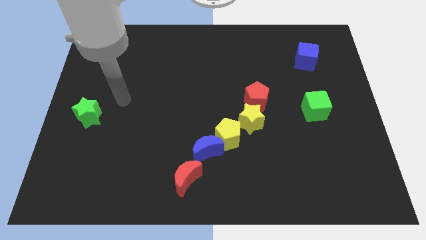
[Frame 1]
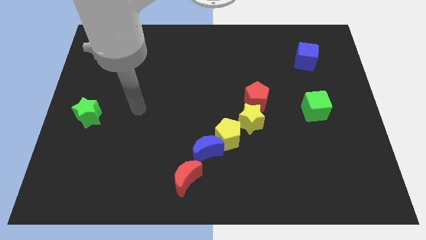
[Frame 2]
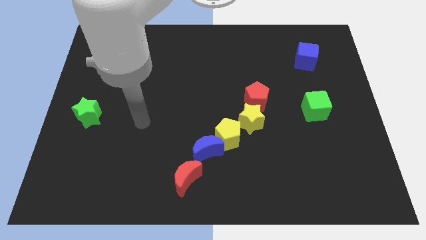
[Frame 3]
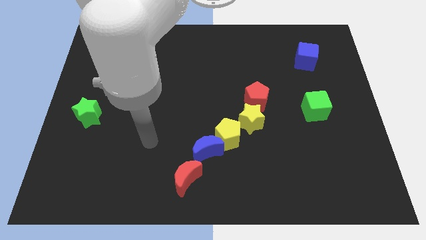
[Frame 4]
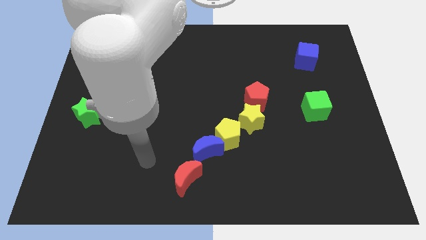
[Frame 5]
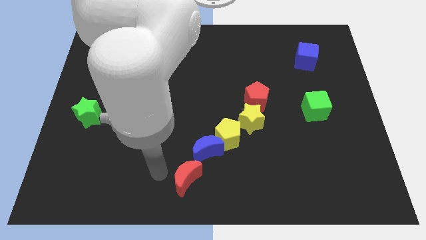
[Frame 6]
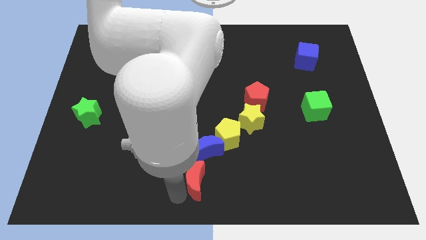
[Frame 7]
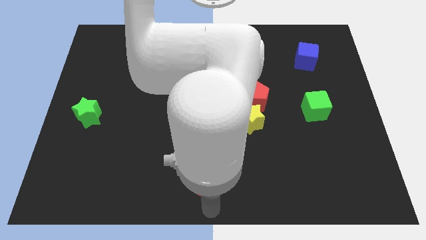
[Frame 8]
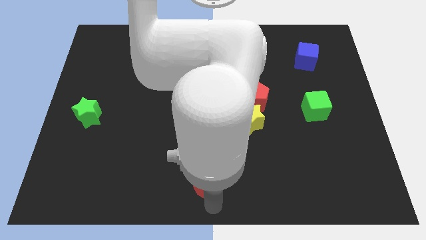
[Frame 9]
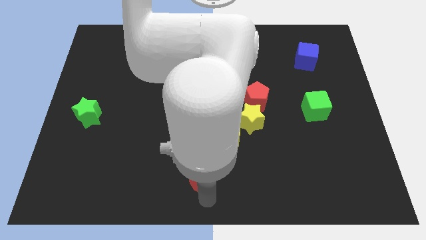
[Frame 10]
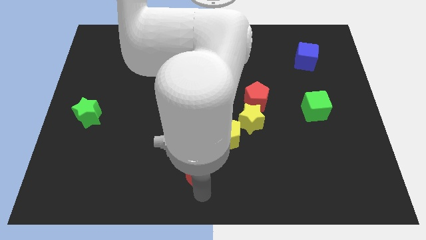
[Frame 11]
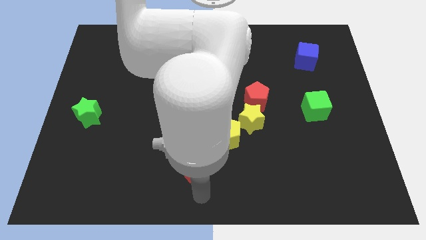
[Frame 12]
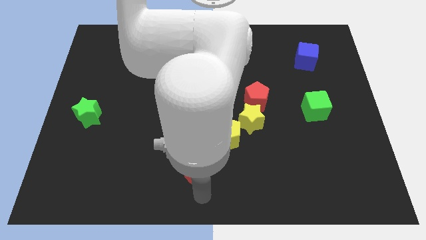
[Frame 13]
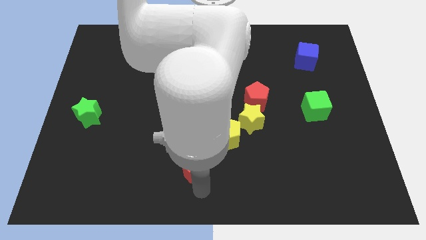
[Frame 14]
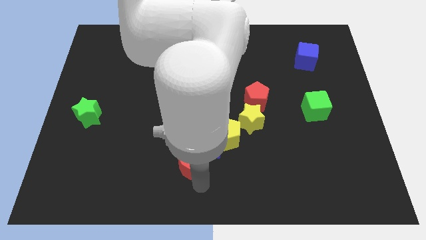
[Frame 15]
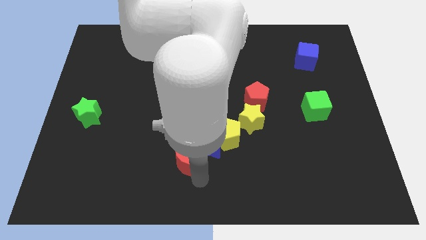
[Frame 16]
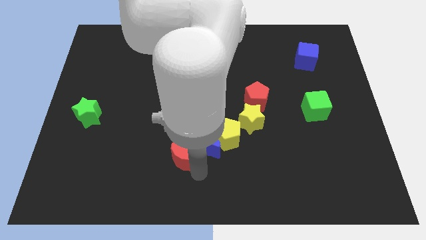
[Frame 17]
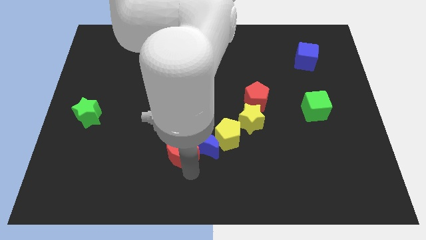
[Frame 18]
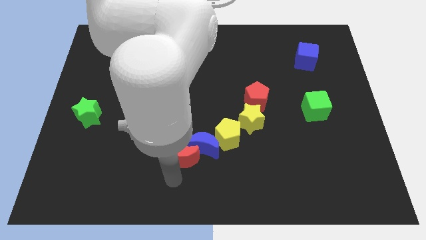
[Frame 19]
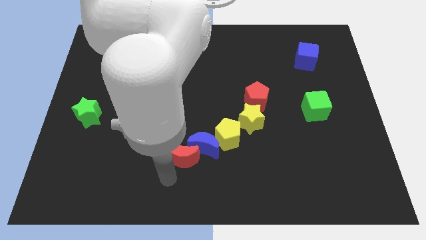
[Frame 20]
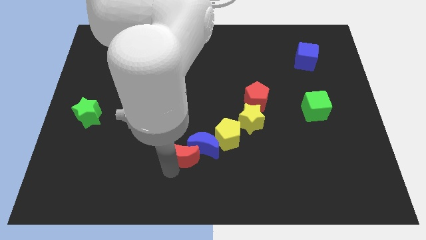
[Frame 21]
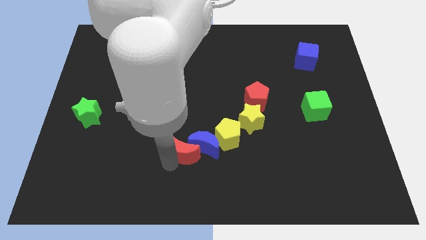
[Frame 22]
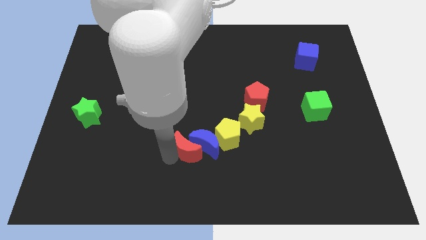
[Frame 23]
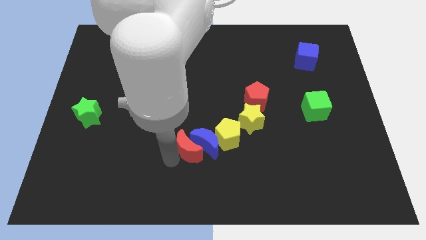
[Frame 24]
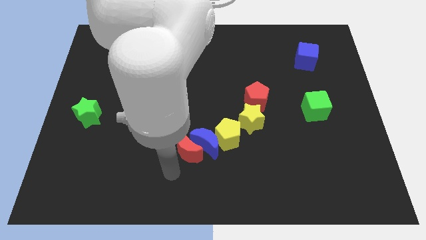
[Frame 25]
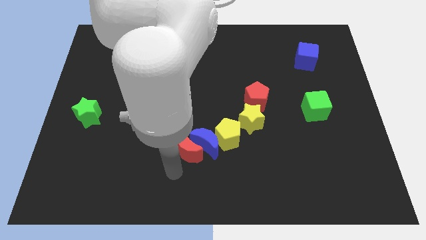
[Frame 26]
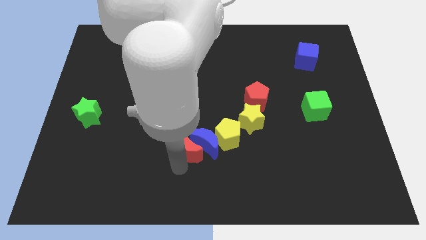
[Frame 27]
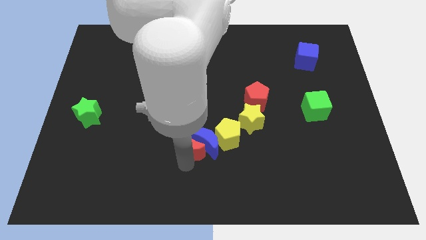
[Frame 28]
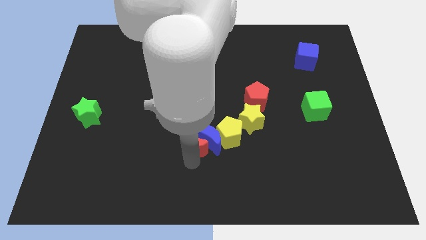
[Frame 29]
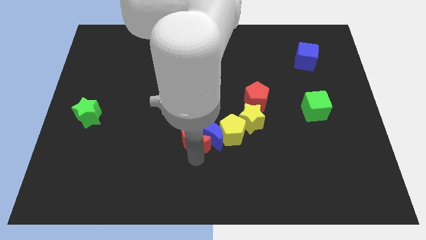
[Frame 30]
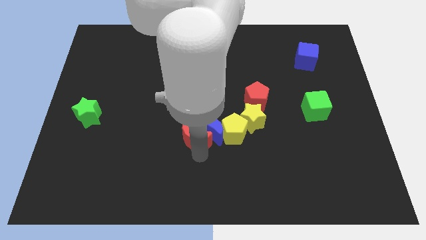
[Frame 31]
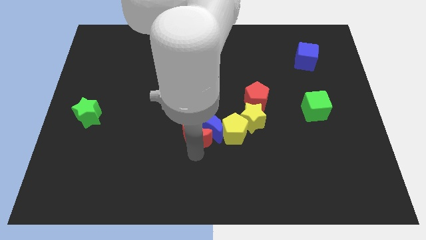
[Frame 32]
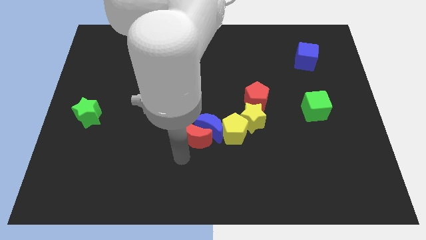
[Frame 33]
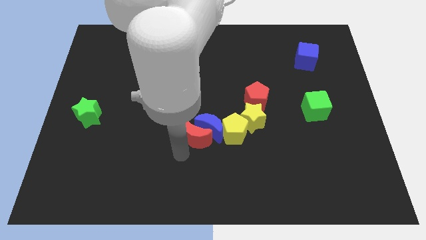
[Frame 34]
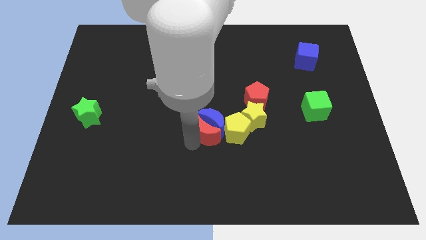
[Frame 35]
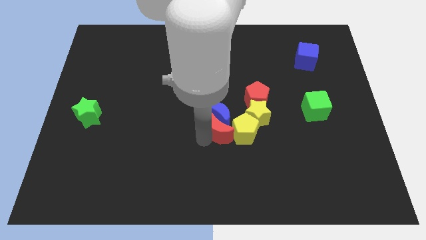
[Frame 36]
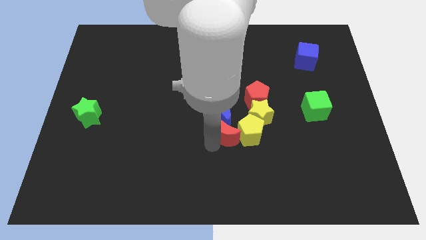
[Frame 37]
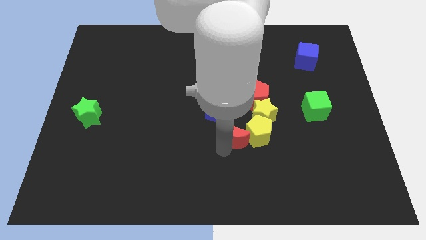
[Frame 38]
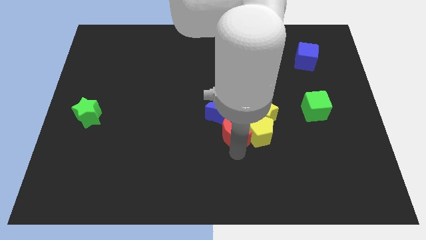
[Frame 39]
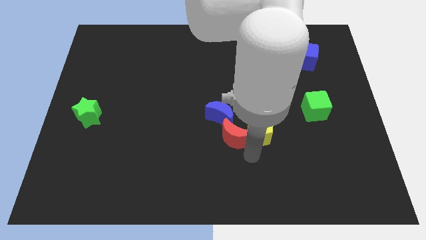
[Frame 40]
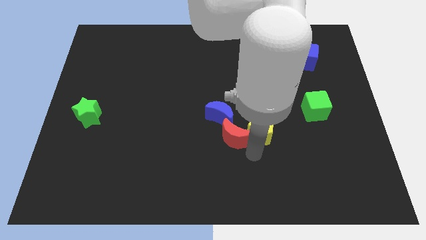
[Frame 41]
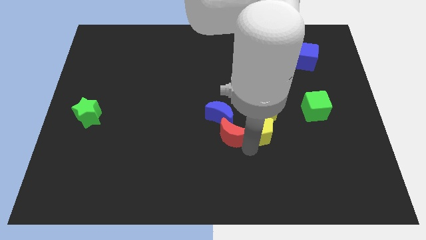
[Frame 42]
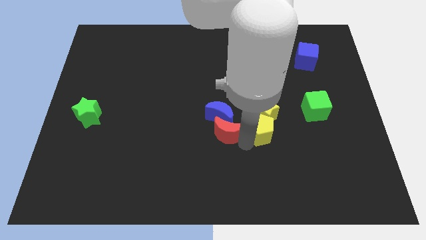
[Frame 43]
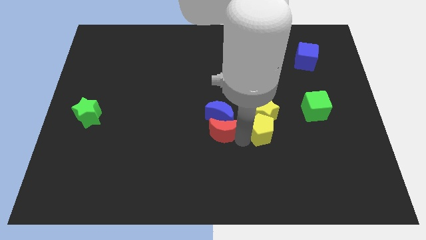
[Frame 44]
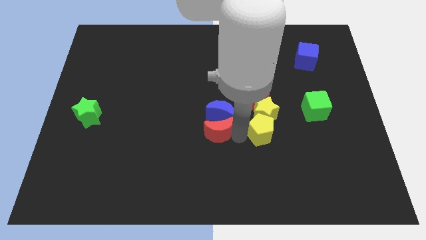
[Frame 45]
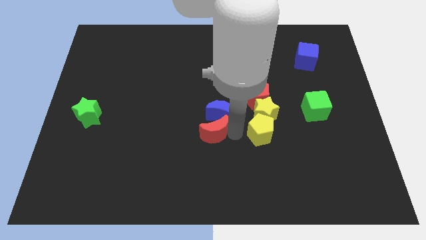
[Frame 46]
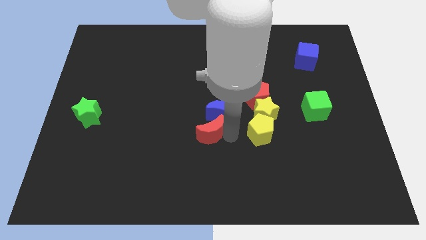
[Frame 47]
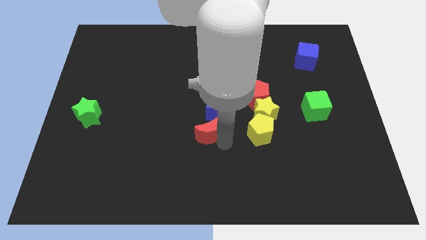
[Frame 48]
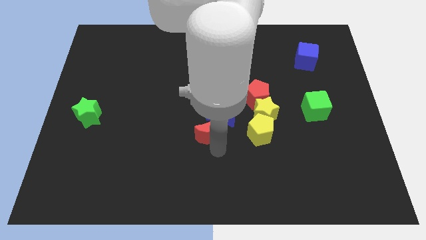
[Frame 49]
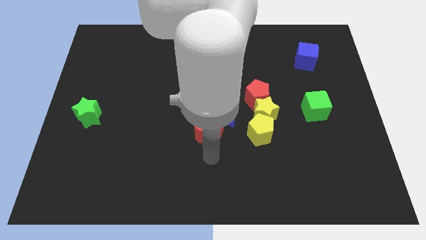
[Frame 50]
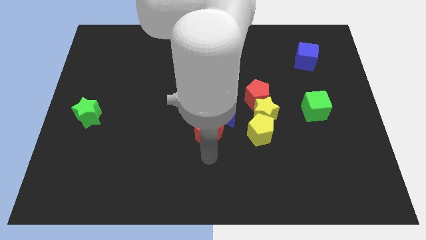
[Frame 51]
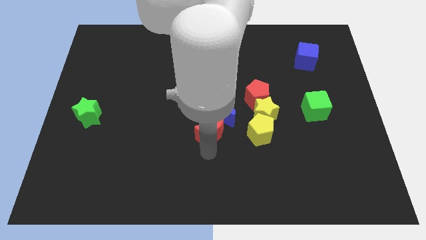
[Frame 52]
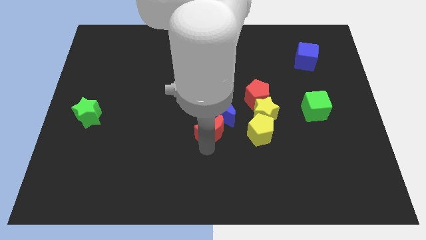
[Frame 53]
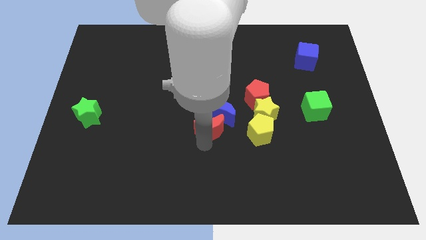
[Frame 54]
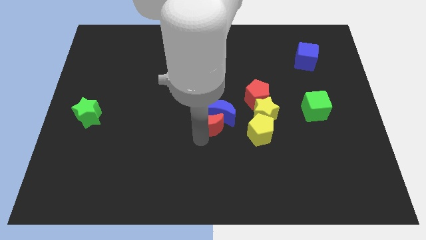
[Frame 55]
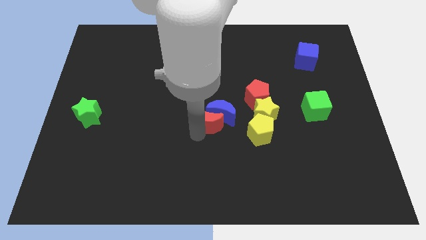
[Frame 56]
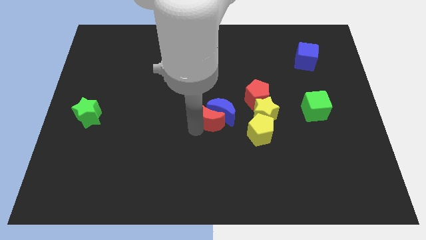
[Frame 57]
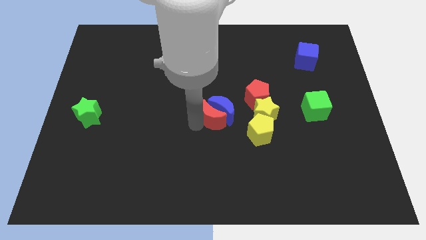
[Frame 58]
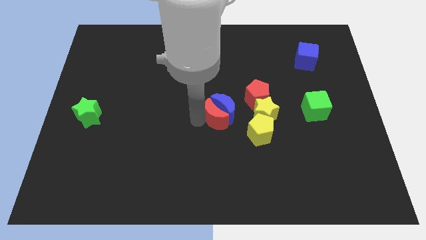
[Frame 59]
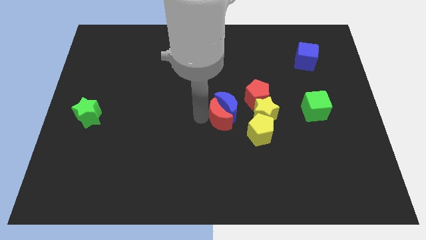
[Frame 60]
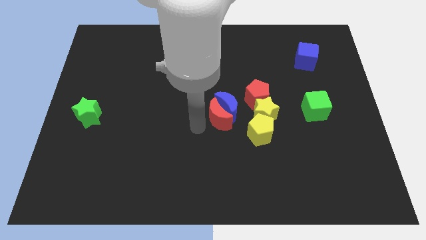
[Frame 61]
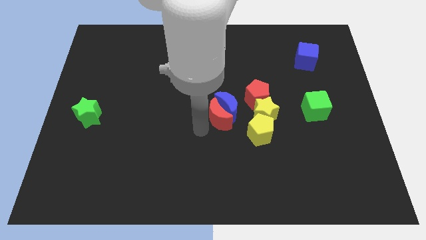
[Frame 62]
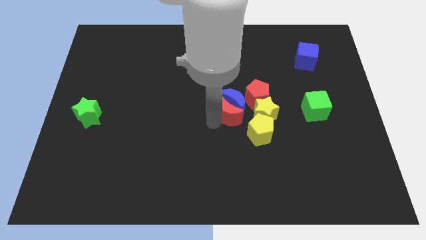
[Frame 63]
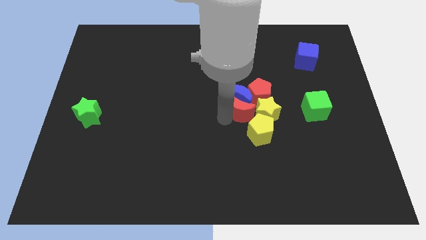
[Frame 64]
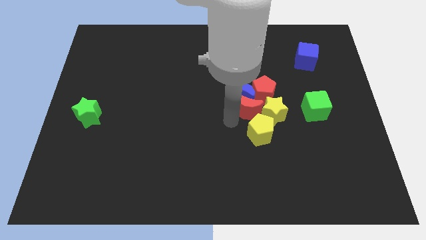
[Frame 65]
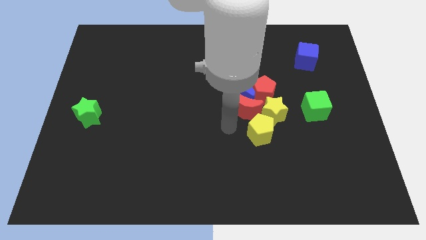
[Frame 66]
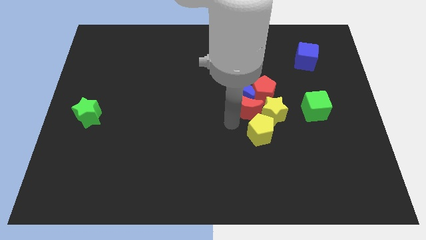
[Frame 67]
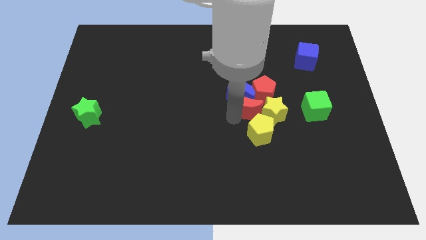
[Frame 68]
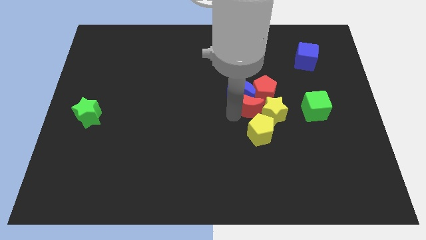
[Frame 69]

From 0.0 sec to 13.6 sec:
move the red moon next to the red pentagon

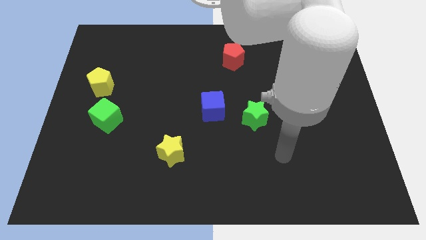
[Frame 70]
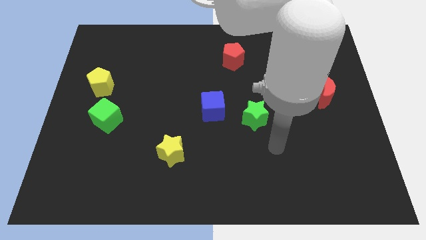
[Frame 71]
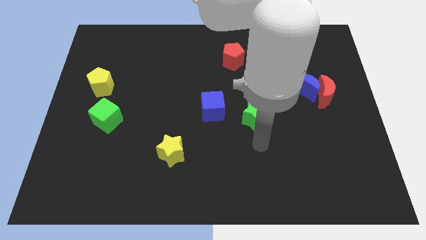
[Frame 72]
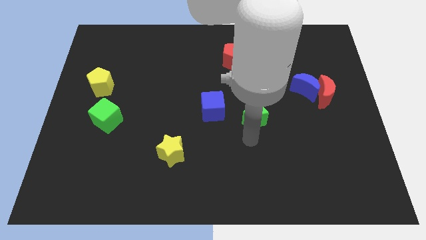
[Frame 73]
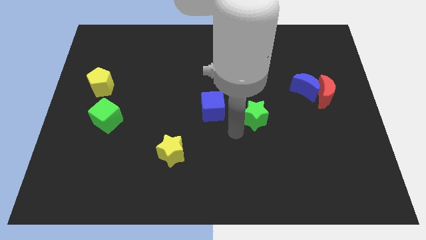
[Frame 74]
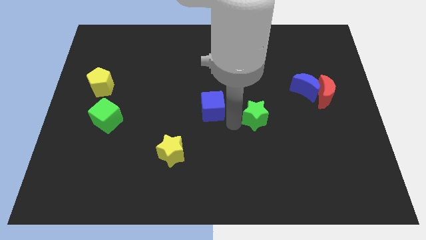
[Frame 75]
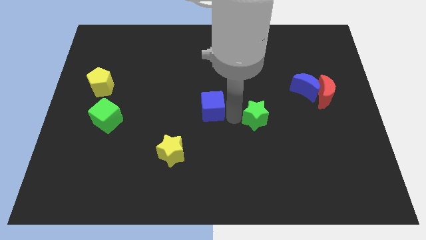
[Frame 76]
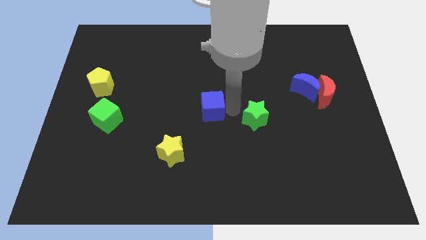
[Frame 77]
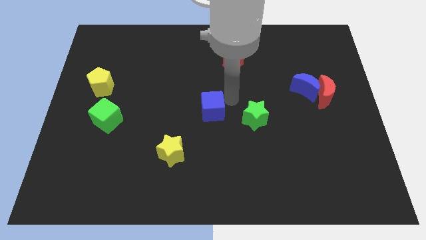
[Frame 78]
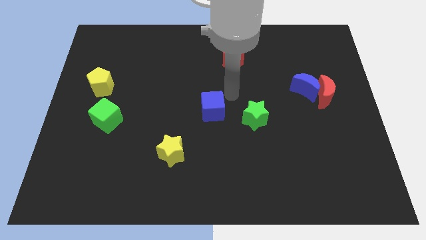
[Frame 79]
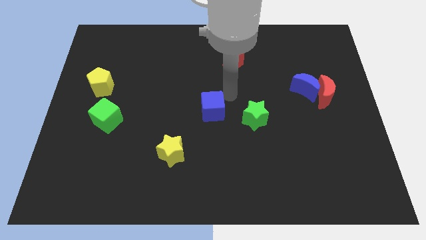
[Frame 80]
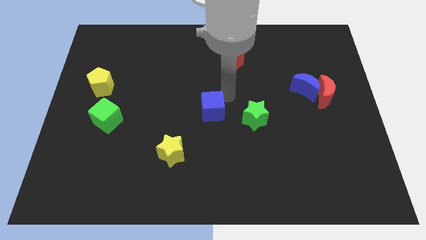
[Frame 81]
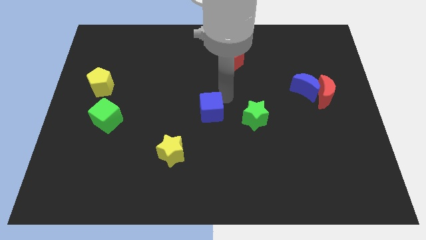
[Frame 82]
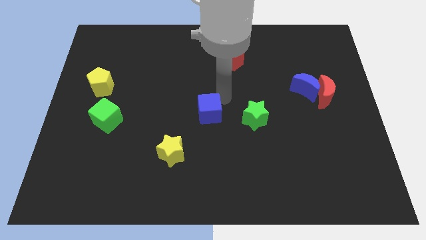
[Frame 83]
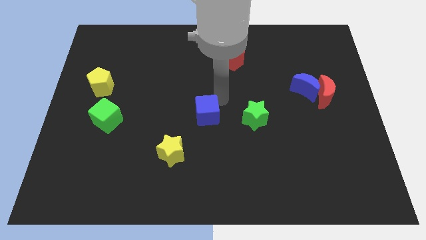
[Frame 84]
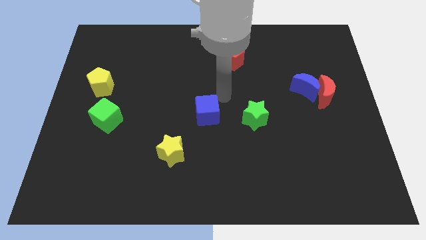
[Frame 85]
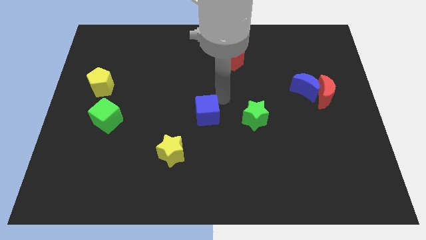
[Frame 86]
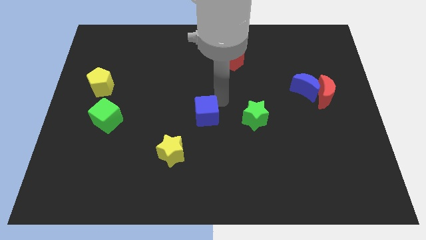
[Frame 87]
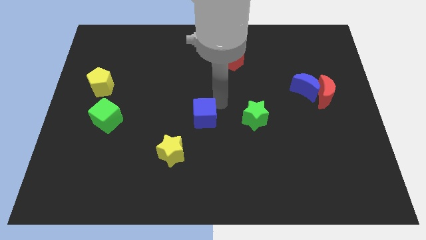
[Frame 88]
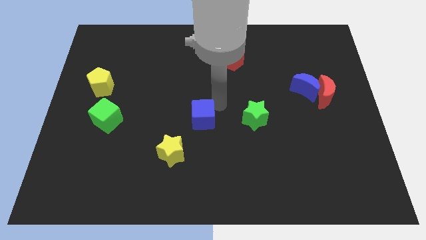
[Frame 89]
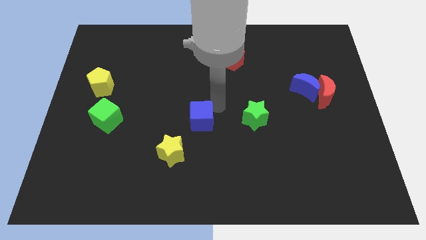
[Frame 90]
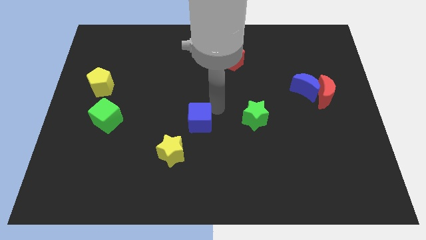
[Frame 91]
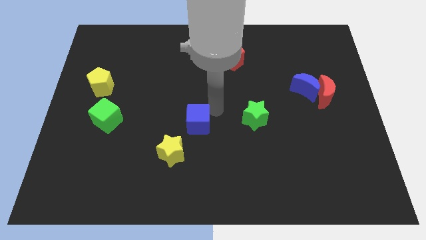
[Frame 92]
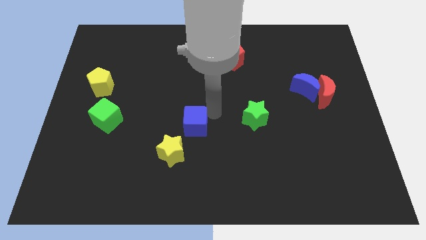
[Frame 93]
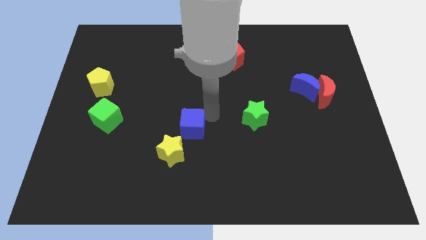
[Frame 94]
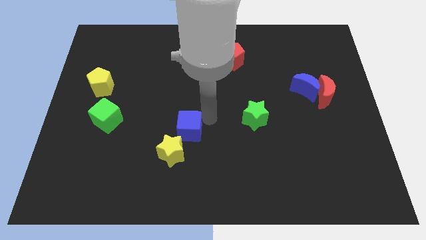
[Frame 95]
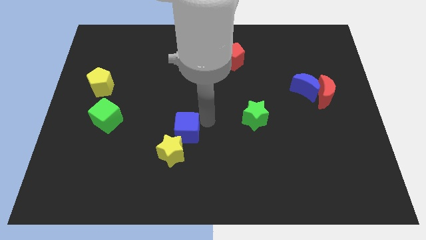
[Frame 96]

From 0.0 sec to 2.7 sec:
move the blue cube towards the yellow star
